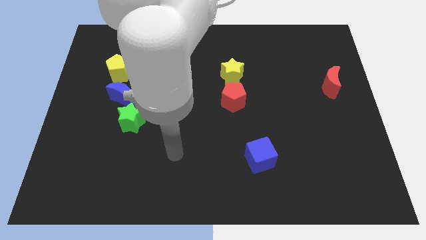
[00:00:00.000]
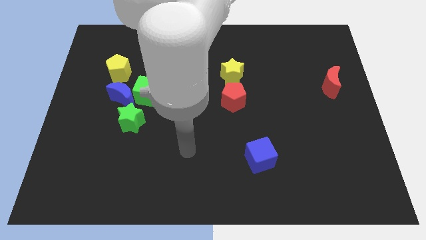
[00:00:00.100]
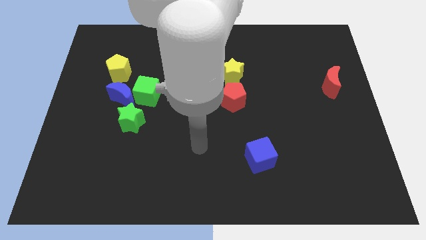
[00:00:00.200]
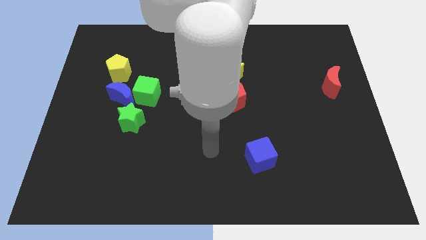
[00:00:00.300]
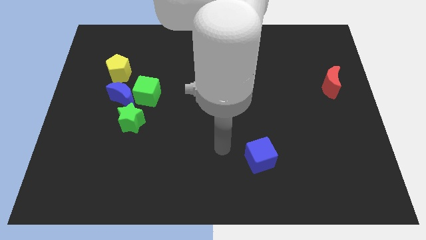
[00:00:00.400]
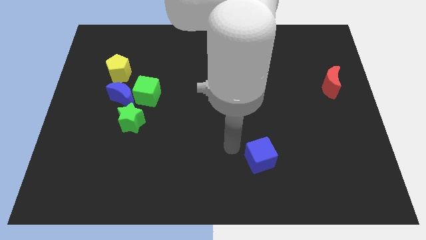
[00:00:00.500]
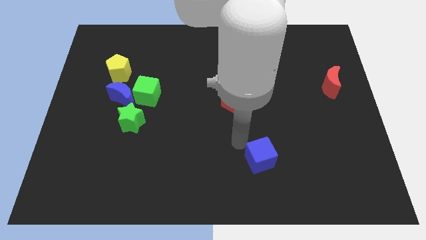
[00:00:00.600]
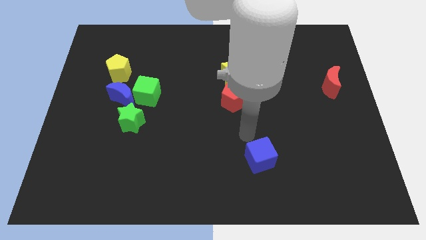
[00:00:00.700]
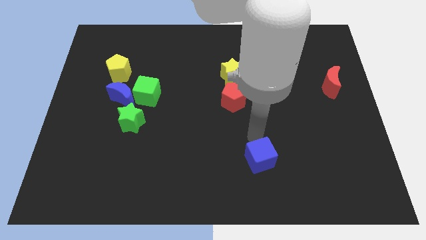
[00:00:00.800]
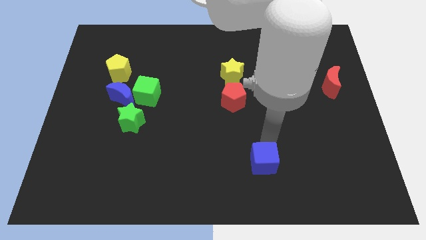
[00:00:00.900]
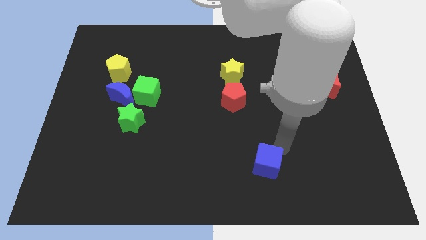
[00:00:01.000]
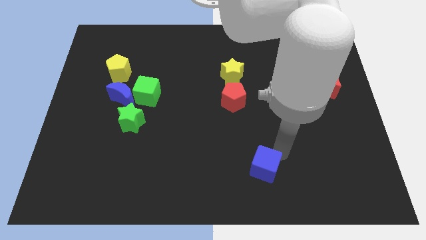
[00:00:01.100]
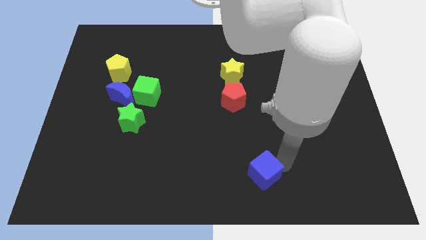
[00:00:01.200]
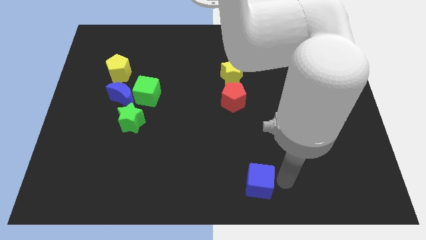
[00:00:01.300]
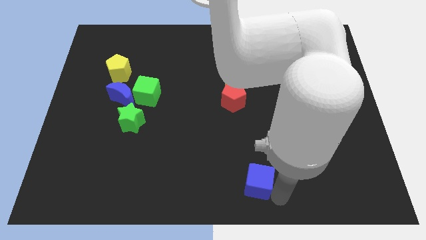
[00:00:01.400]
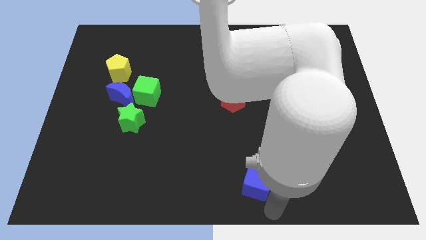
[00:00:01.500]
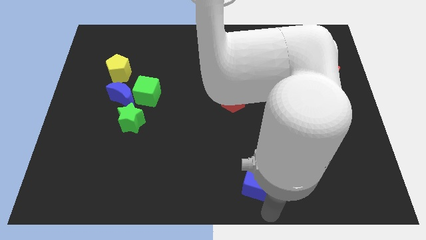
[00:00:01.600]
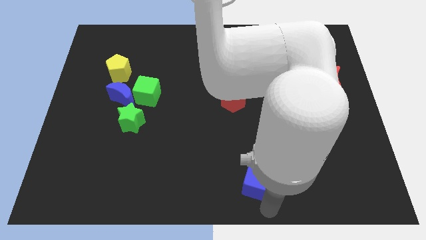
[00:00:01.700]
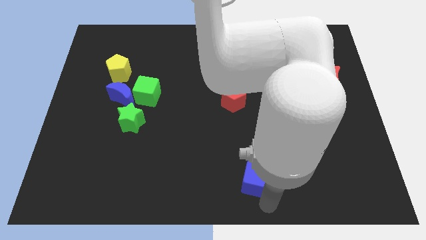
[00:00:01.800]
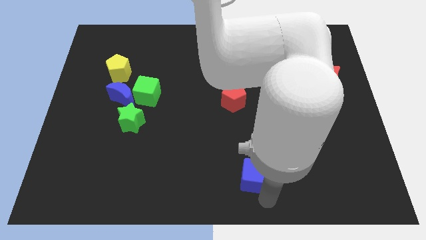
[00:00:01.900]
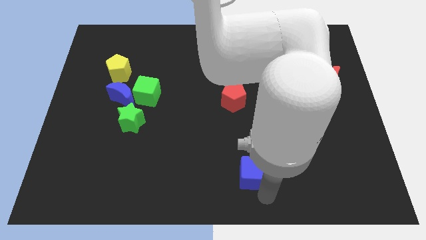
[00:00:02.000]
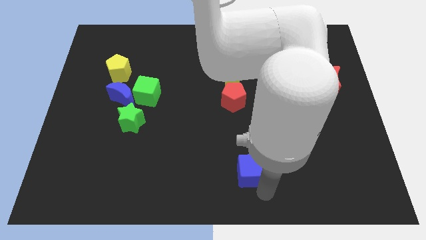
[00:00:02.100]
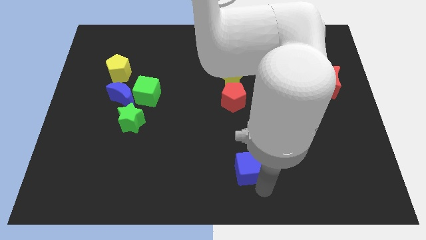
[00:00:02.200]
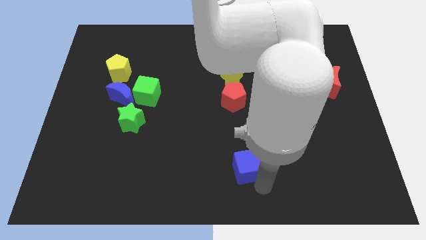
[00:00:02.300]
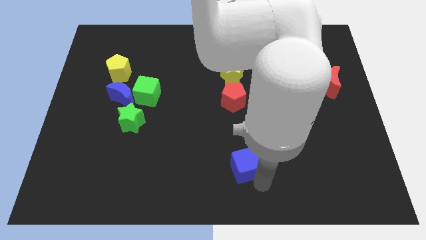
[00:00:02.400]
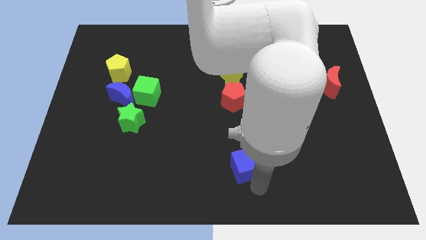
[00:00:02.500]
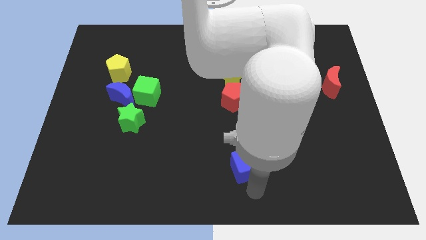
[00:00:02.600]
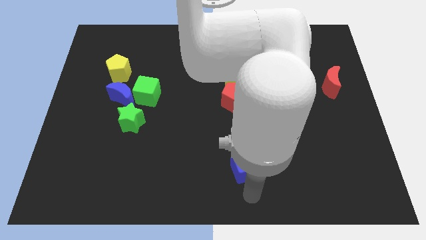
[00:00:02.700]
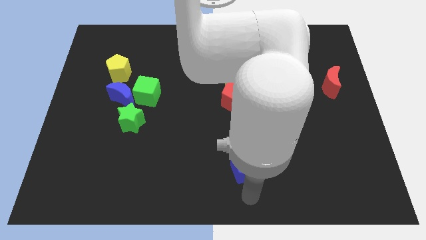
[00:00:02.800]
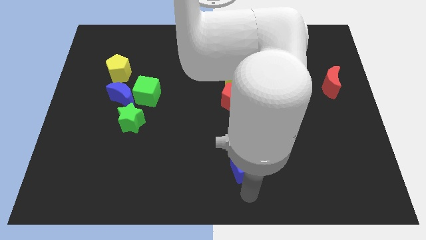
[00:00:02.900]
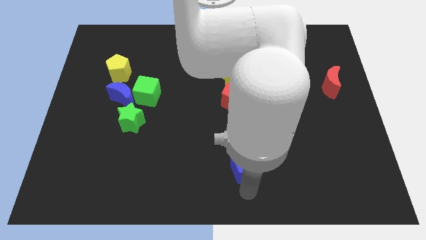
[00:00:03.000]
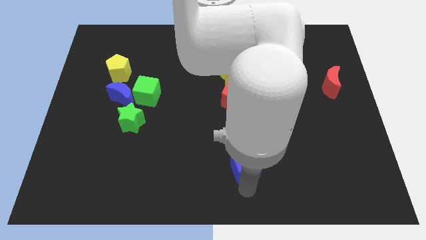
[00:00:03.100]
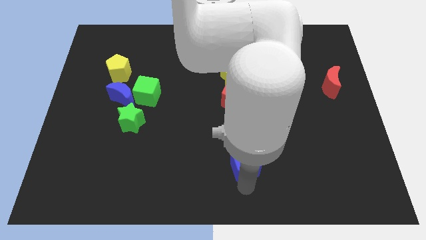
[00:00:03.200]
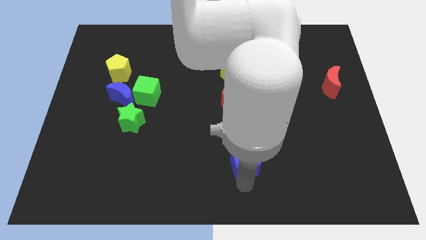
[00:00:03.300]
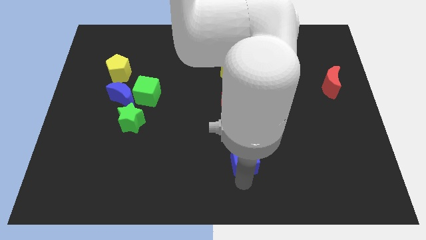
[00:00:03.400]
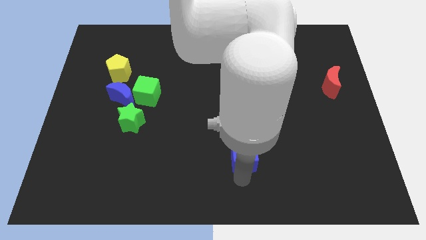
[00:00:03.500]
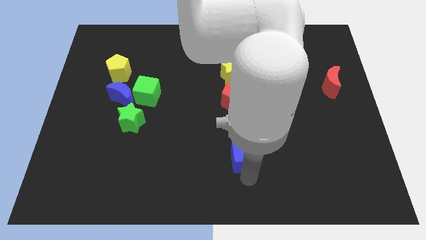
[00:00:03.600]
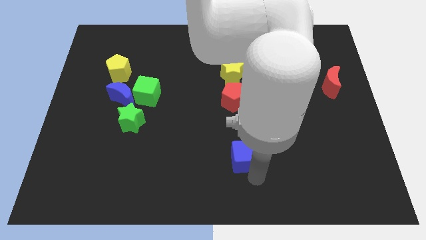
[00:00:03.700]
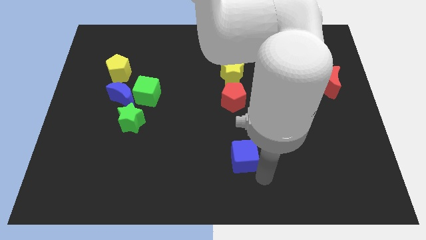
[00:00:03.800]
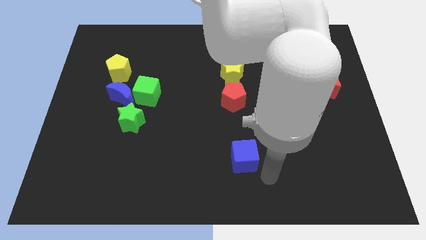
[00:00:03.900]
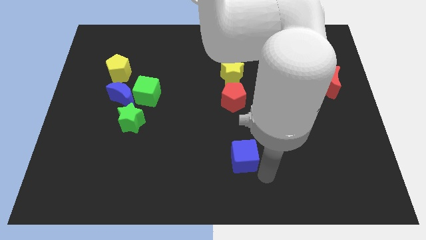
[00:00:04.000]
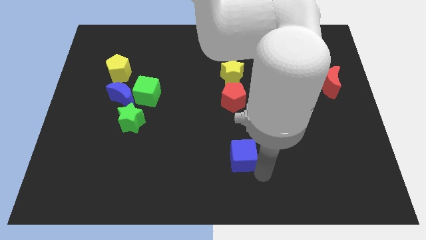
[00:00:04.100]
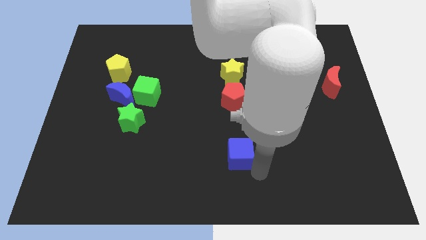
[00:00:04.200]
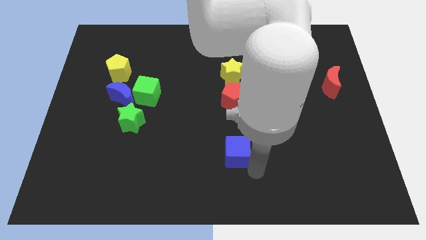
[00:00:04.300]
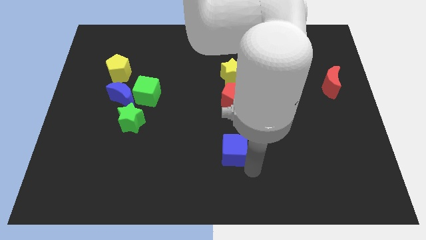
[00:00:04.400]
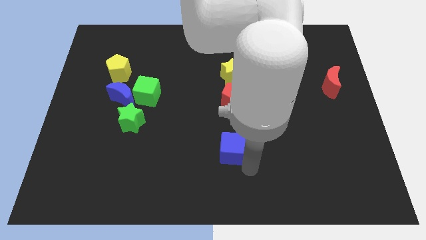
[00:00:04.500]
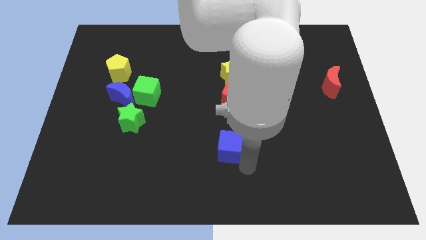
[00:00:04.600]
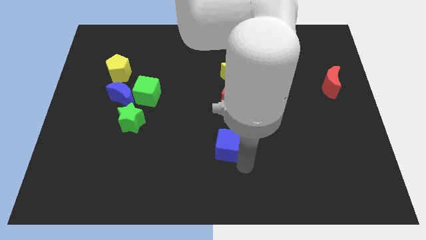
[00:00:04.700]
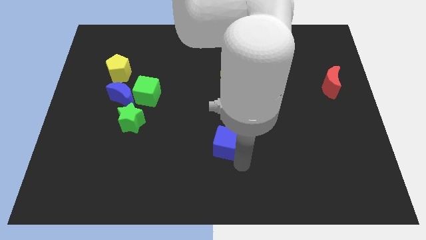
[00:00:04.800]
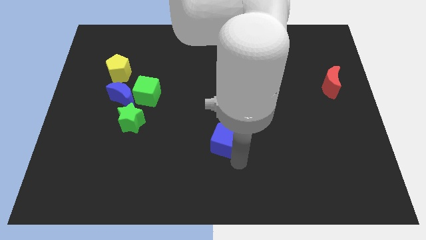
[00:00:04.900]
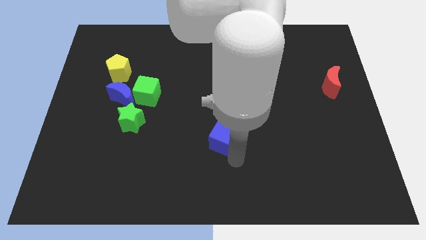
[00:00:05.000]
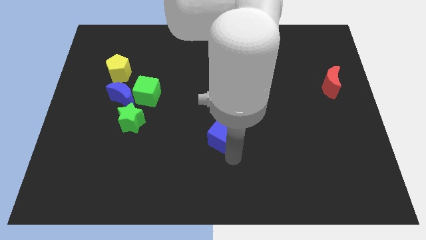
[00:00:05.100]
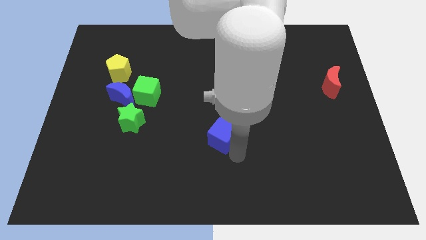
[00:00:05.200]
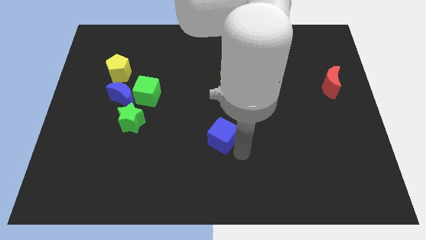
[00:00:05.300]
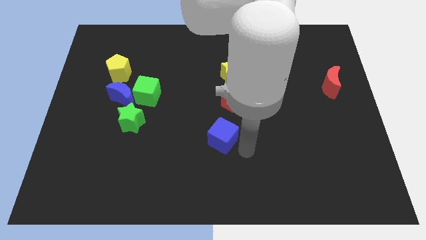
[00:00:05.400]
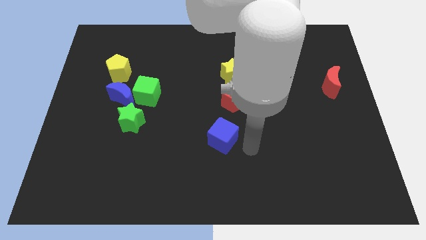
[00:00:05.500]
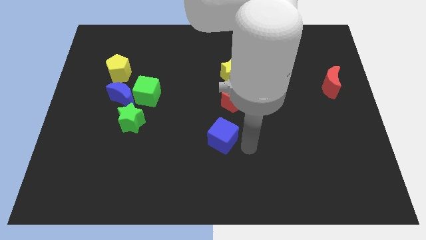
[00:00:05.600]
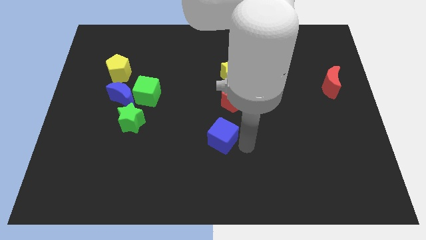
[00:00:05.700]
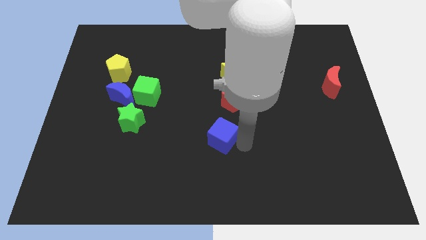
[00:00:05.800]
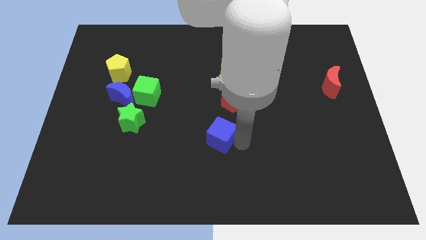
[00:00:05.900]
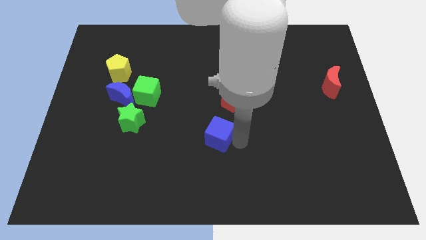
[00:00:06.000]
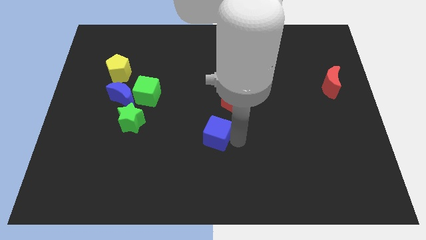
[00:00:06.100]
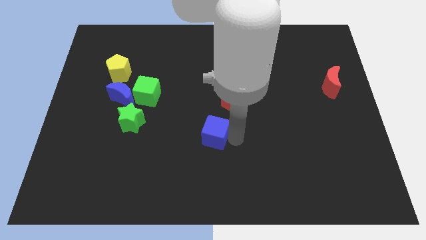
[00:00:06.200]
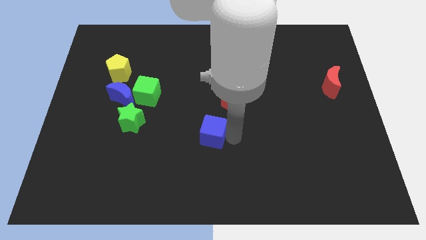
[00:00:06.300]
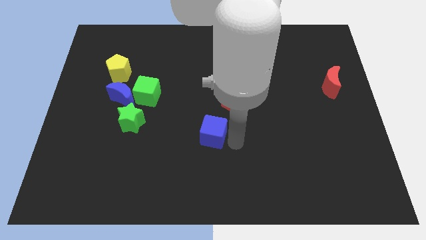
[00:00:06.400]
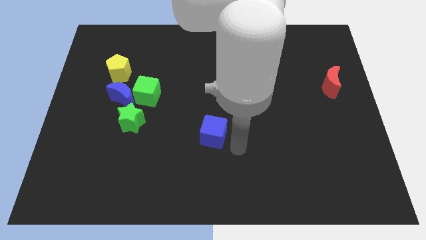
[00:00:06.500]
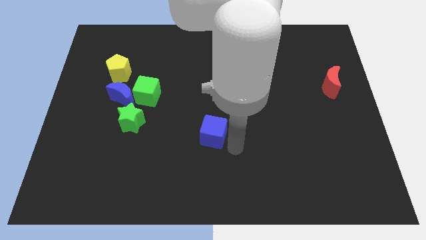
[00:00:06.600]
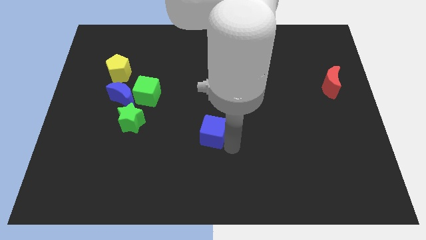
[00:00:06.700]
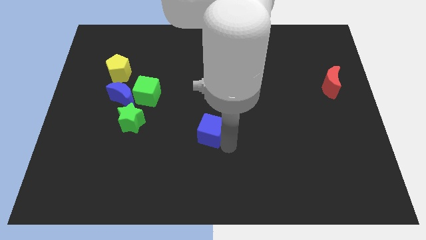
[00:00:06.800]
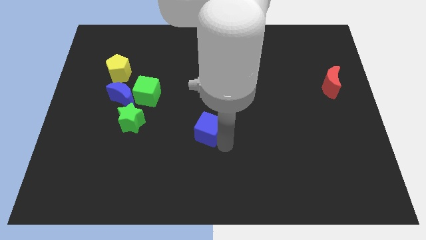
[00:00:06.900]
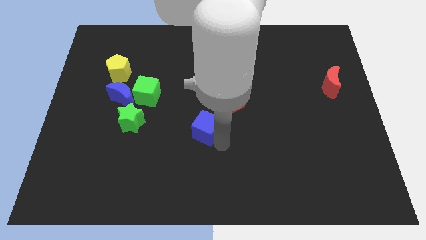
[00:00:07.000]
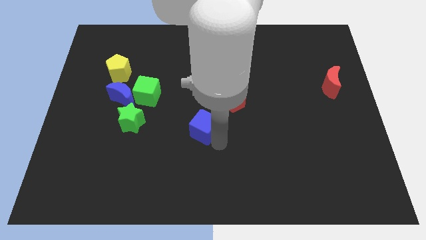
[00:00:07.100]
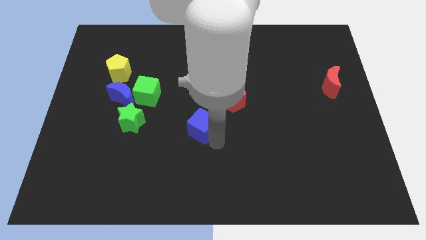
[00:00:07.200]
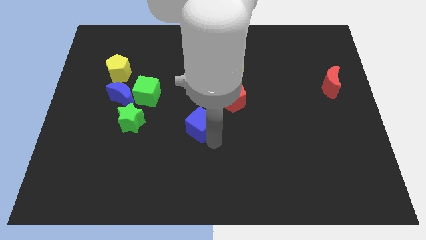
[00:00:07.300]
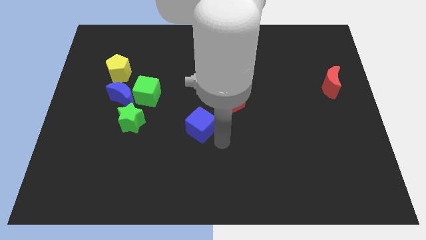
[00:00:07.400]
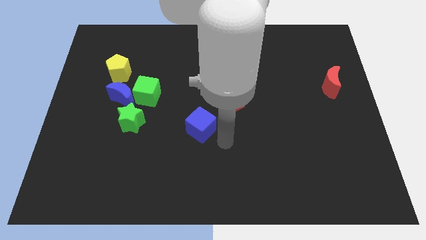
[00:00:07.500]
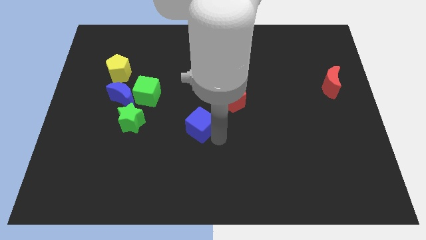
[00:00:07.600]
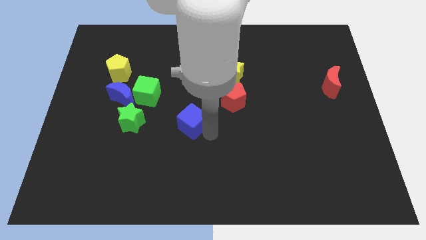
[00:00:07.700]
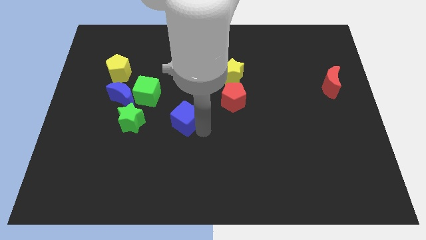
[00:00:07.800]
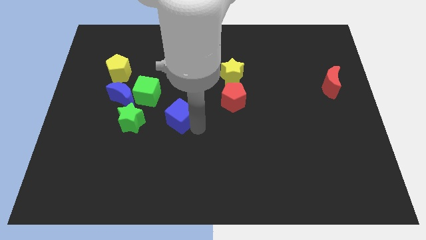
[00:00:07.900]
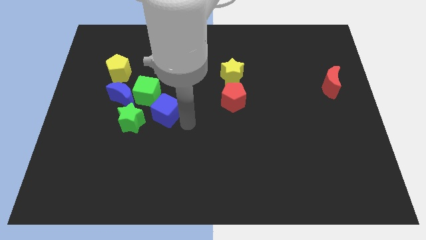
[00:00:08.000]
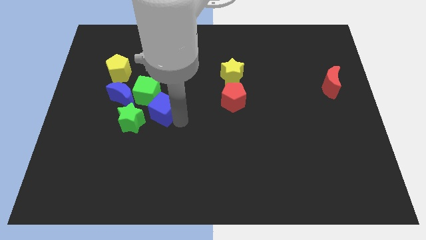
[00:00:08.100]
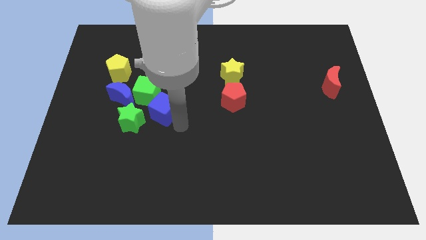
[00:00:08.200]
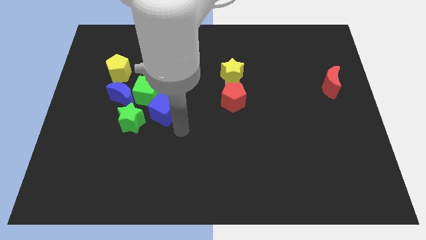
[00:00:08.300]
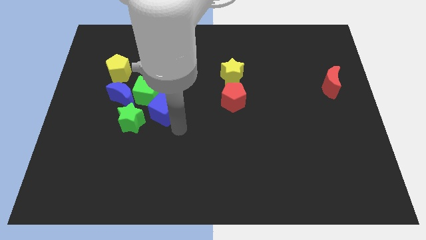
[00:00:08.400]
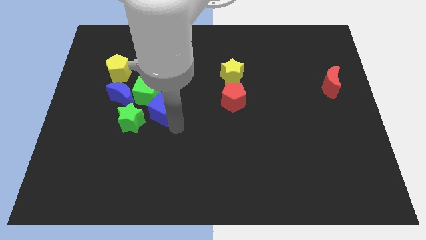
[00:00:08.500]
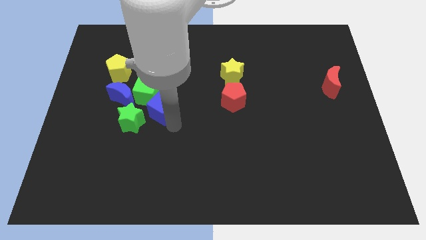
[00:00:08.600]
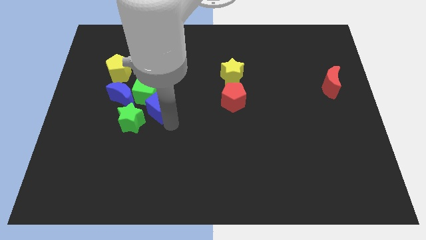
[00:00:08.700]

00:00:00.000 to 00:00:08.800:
slide the blue cube next to the green cube
